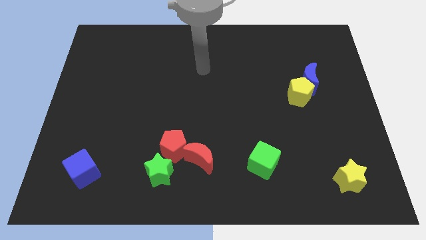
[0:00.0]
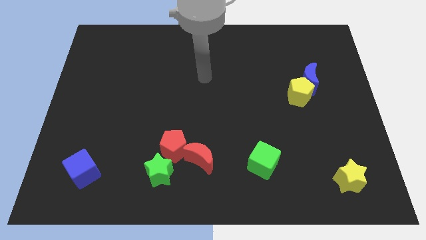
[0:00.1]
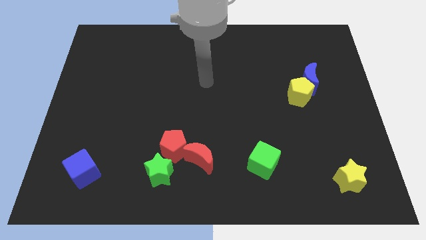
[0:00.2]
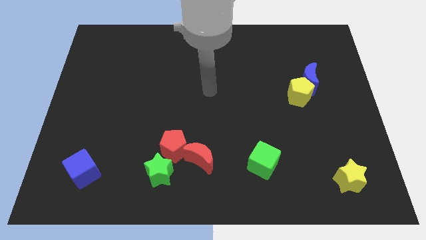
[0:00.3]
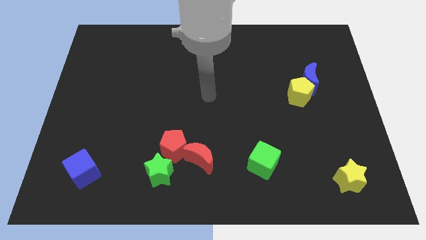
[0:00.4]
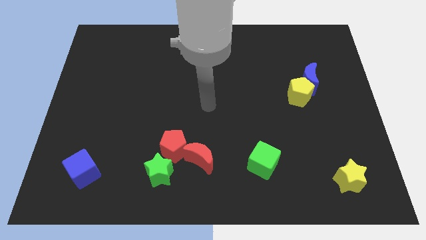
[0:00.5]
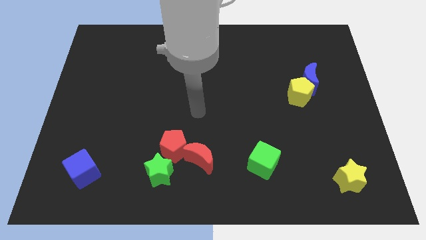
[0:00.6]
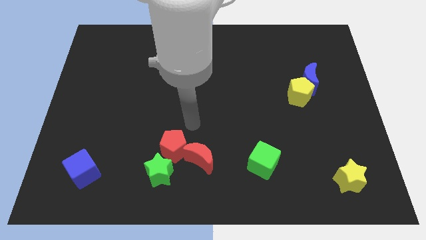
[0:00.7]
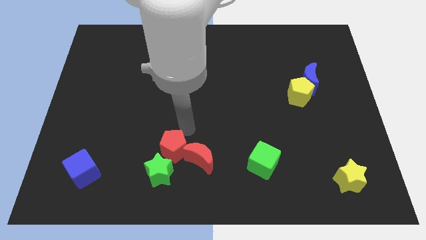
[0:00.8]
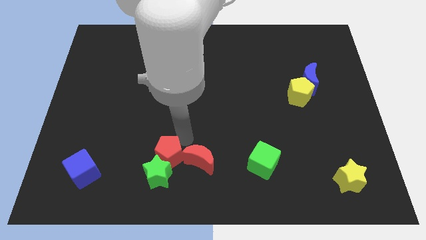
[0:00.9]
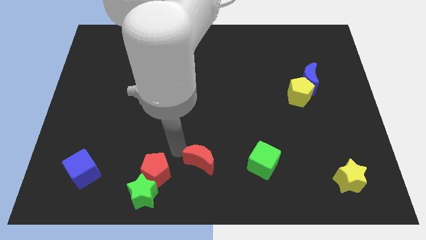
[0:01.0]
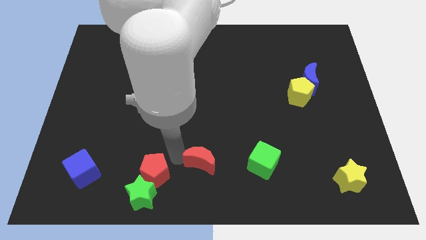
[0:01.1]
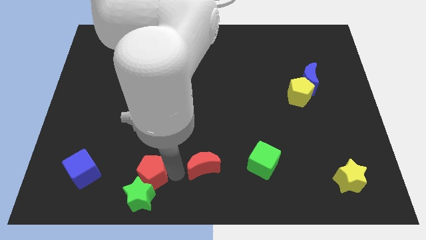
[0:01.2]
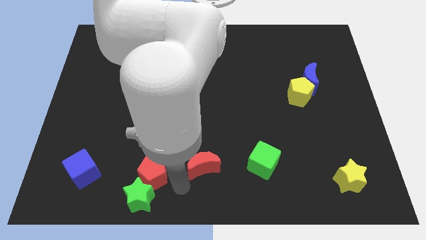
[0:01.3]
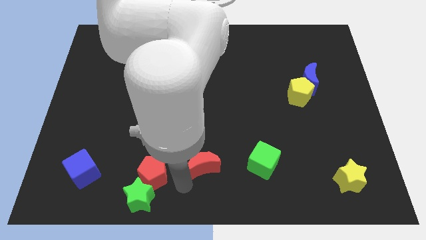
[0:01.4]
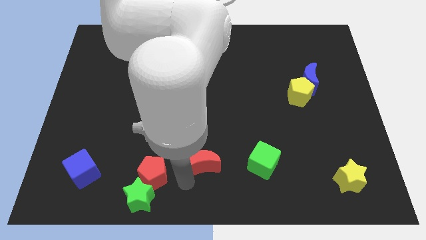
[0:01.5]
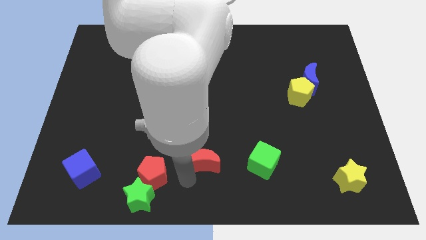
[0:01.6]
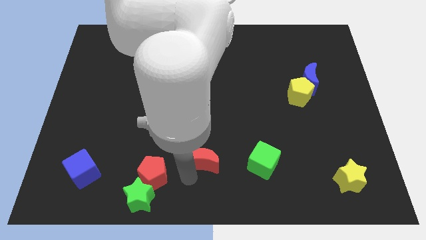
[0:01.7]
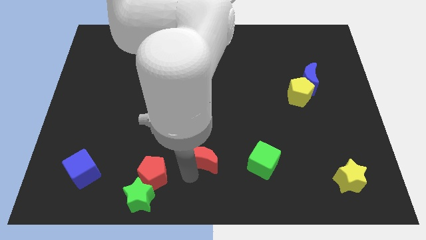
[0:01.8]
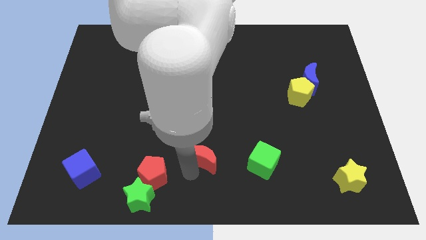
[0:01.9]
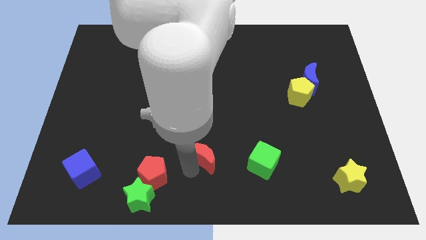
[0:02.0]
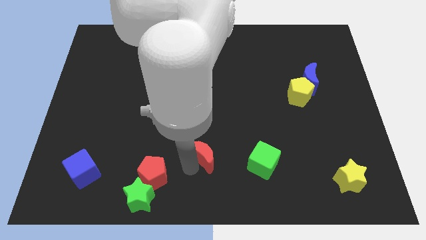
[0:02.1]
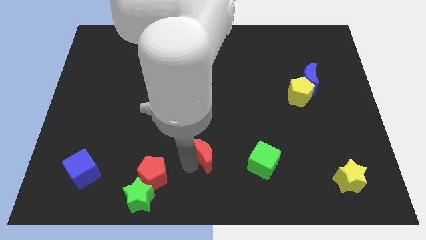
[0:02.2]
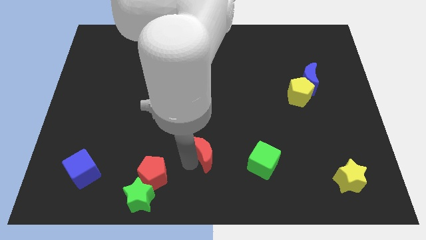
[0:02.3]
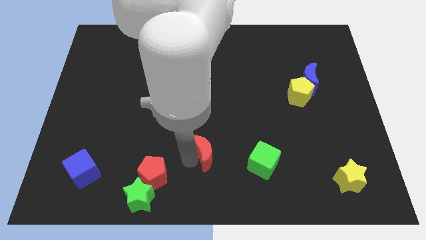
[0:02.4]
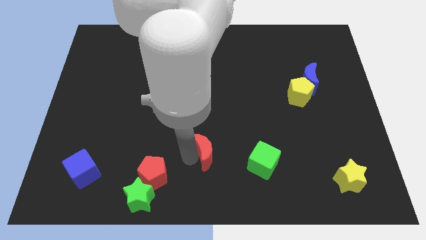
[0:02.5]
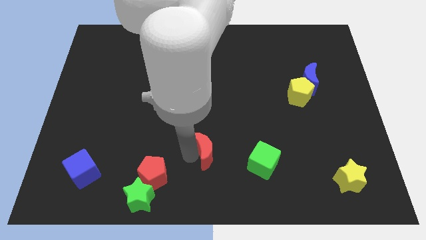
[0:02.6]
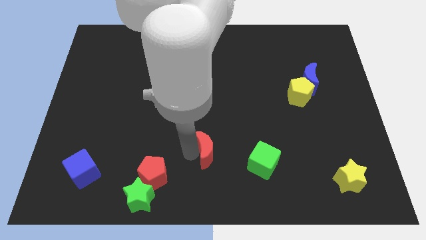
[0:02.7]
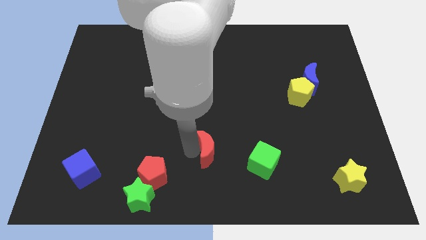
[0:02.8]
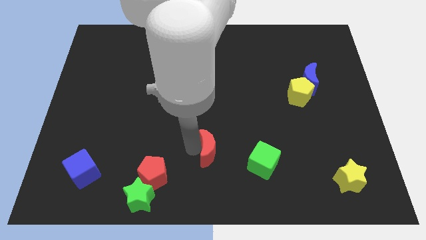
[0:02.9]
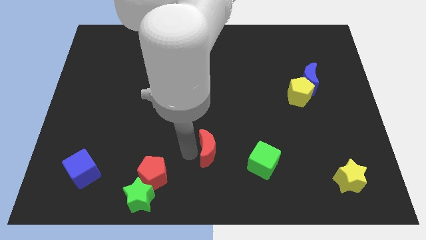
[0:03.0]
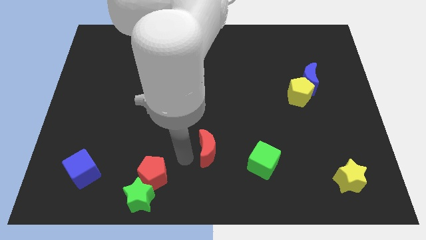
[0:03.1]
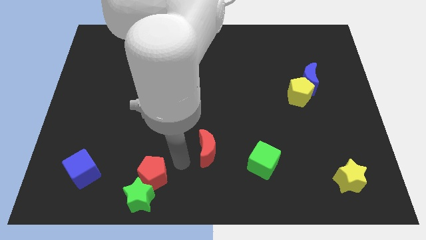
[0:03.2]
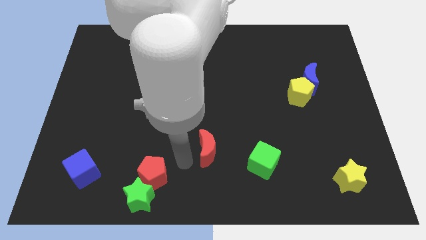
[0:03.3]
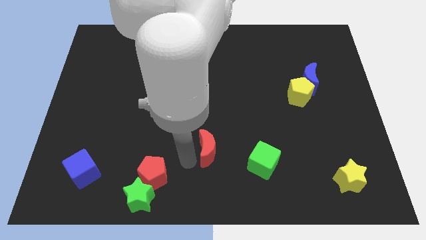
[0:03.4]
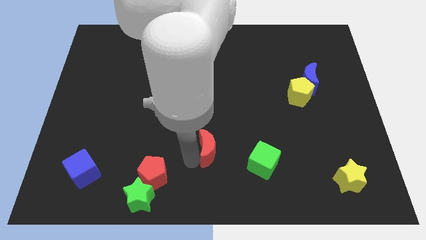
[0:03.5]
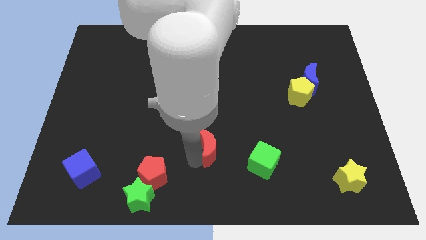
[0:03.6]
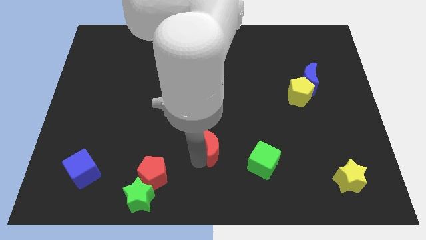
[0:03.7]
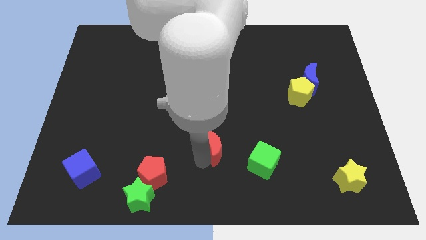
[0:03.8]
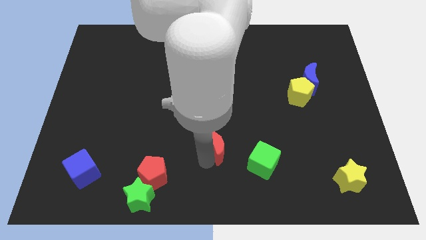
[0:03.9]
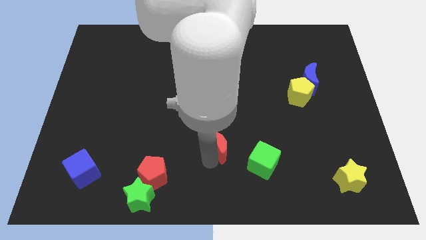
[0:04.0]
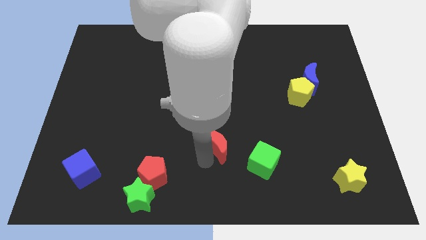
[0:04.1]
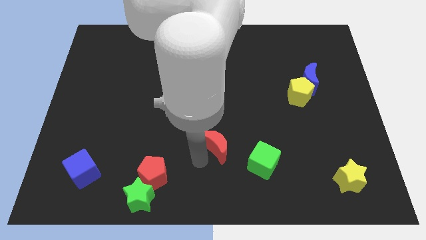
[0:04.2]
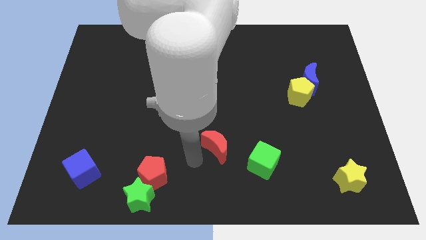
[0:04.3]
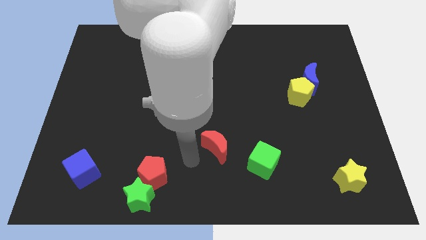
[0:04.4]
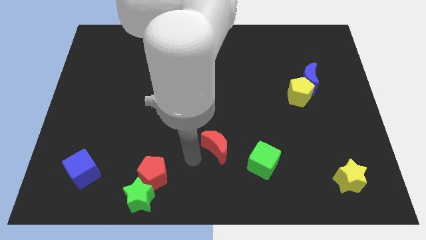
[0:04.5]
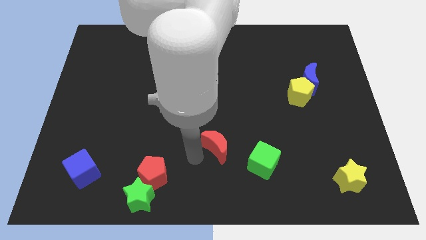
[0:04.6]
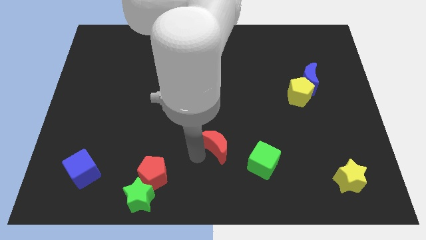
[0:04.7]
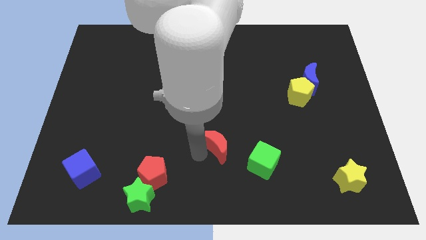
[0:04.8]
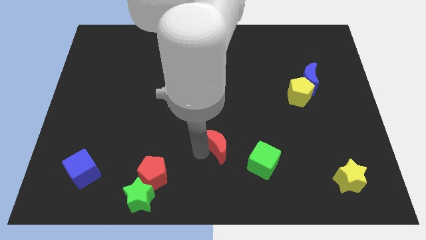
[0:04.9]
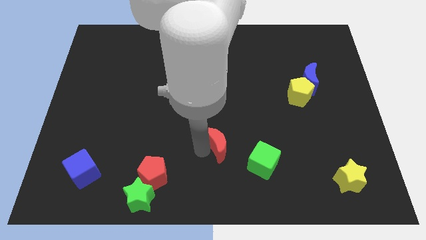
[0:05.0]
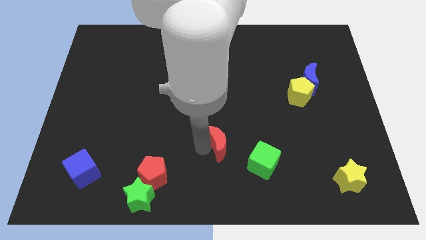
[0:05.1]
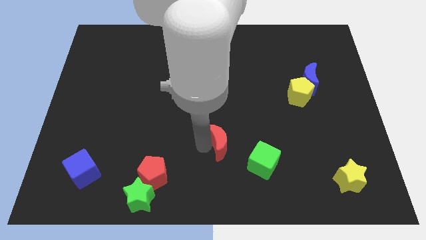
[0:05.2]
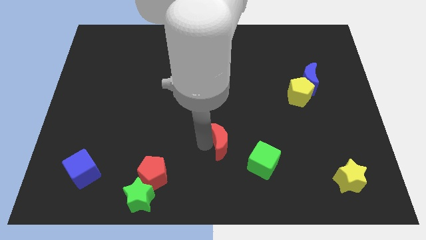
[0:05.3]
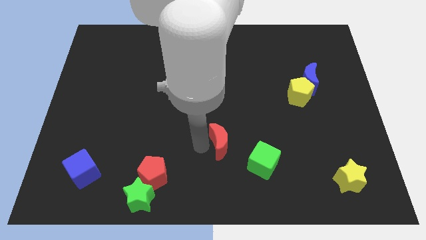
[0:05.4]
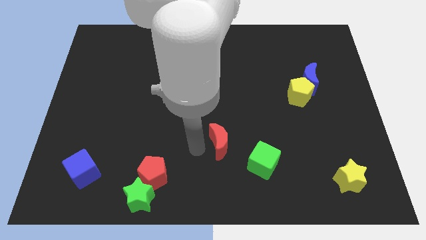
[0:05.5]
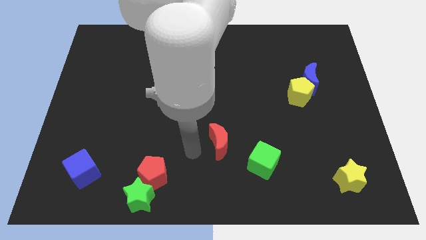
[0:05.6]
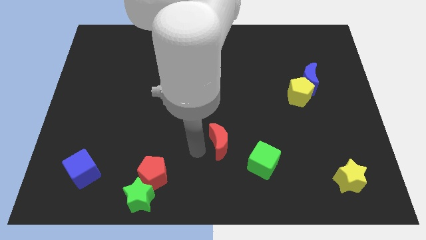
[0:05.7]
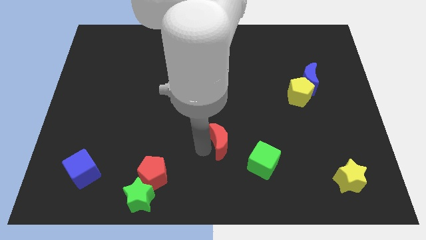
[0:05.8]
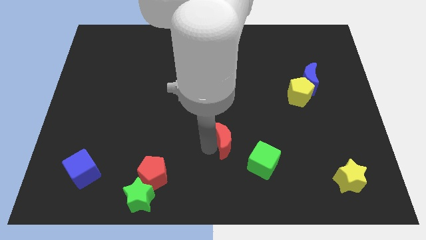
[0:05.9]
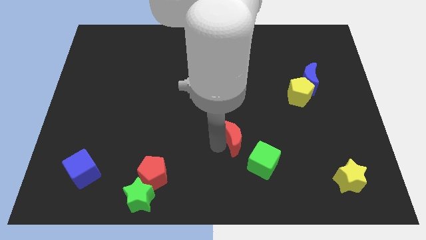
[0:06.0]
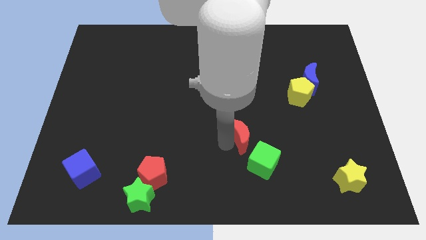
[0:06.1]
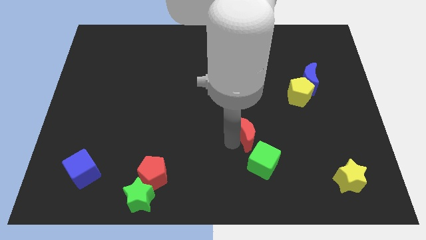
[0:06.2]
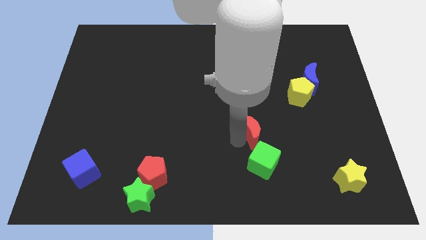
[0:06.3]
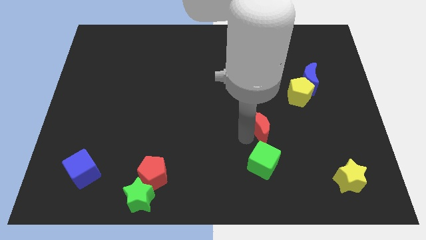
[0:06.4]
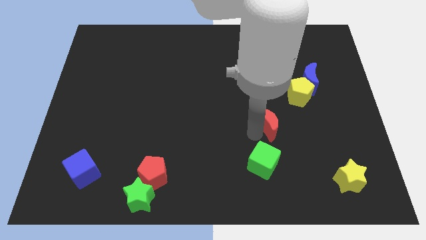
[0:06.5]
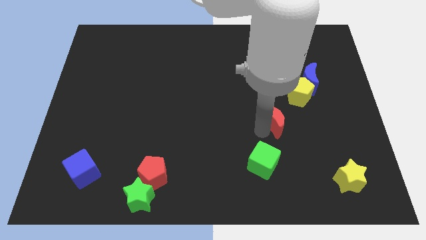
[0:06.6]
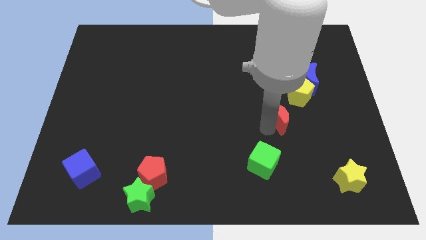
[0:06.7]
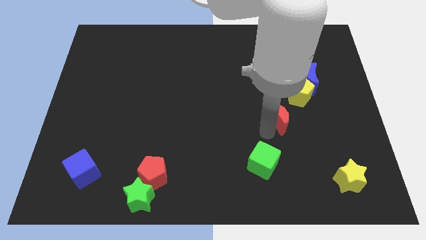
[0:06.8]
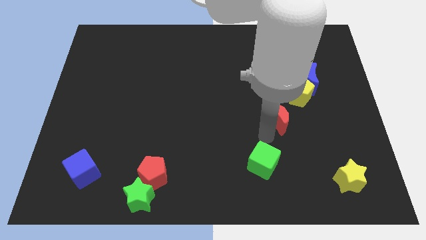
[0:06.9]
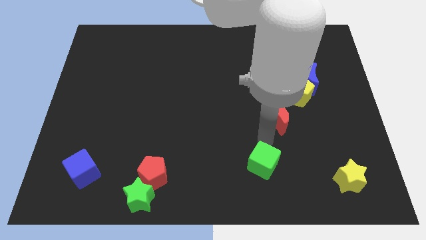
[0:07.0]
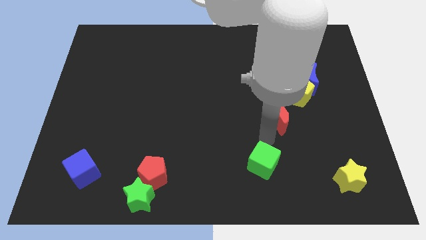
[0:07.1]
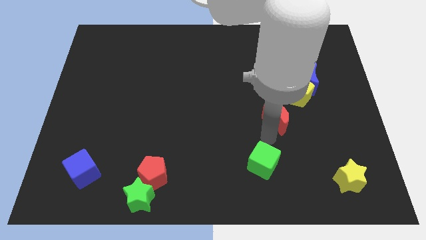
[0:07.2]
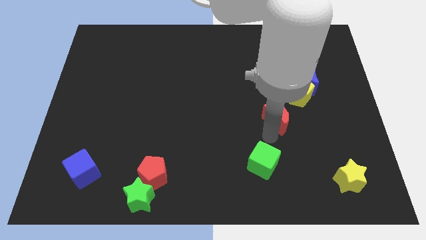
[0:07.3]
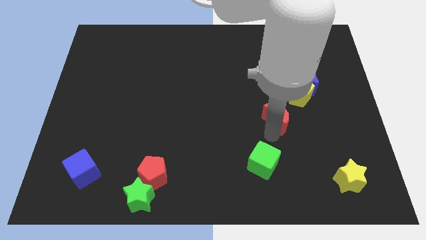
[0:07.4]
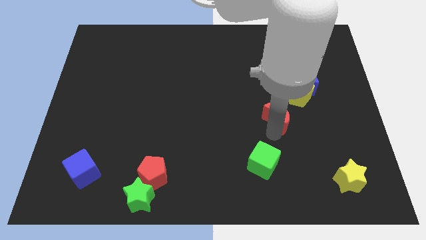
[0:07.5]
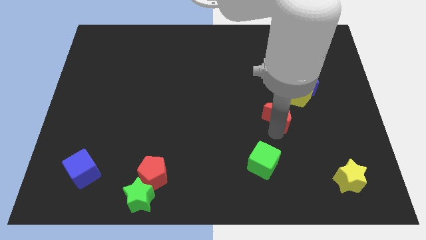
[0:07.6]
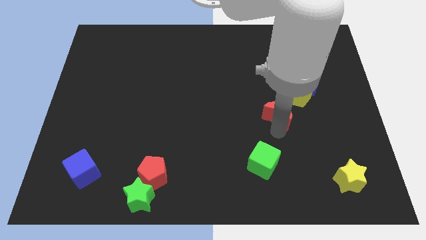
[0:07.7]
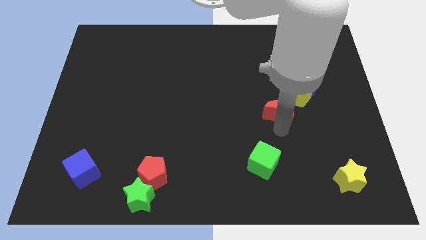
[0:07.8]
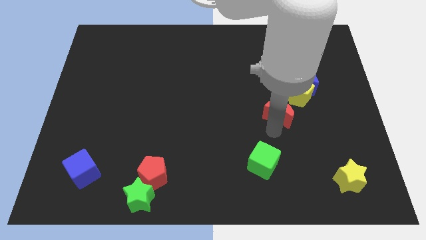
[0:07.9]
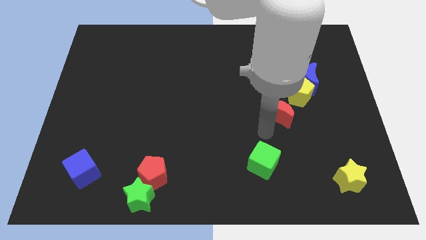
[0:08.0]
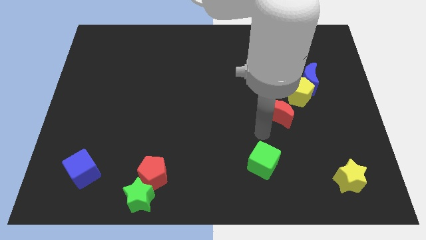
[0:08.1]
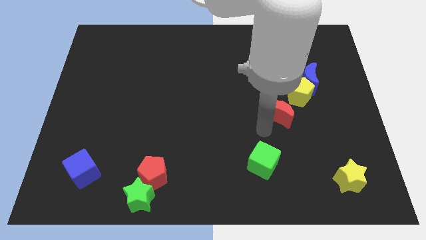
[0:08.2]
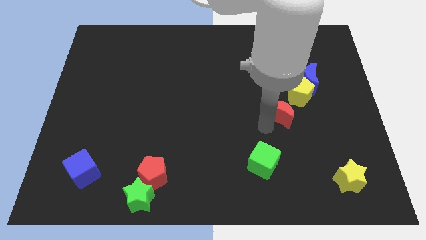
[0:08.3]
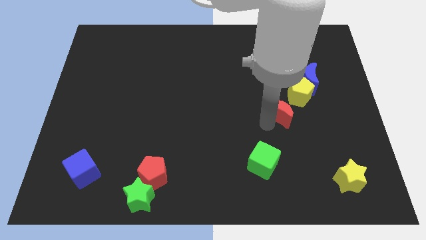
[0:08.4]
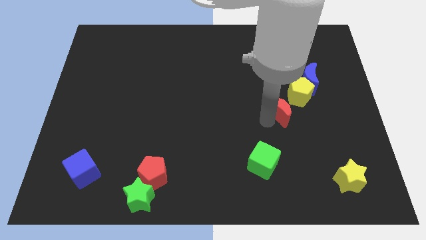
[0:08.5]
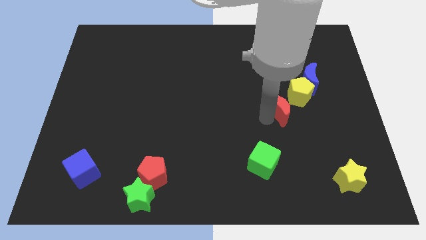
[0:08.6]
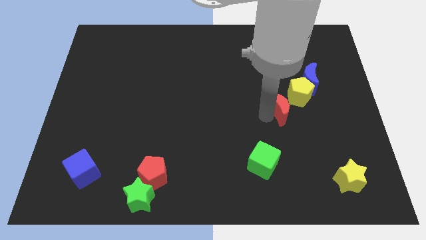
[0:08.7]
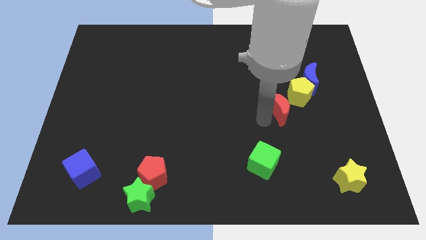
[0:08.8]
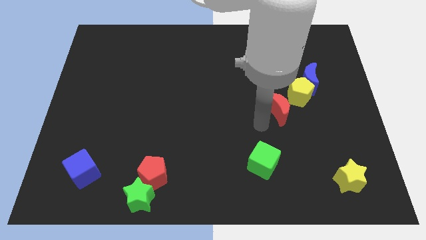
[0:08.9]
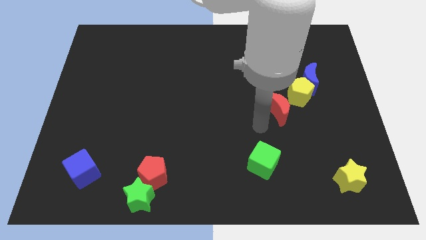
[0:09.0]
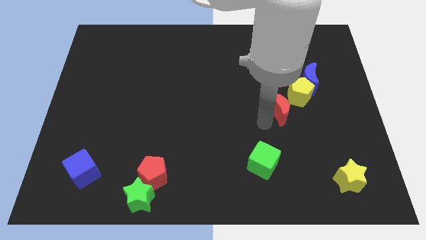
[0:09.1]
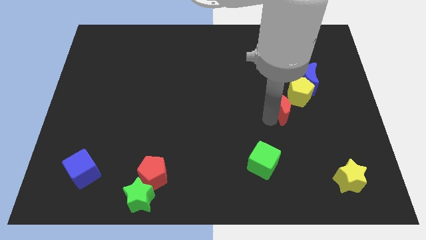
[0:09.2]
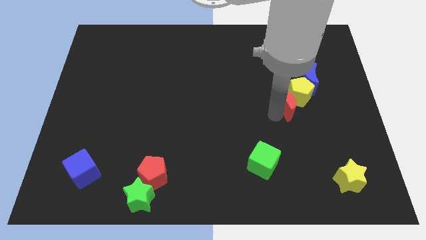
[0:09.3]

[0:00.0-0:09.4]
put the red moon to the yellow pentagon
